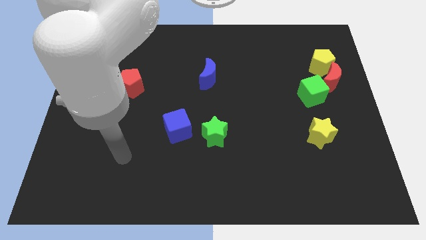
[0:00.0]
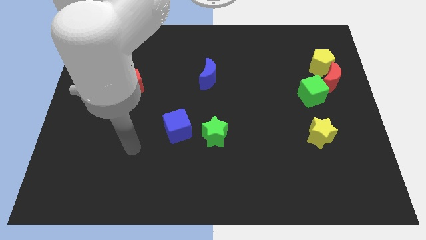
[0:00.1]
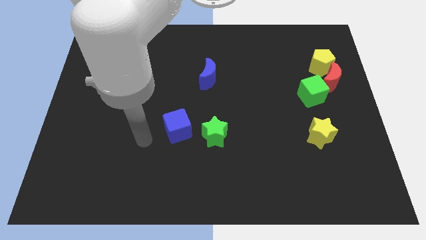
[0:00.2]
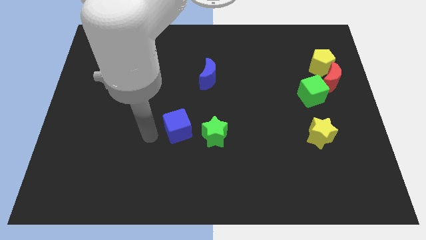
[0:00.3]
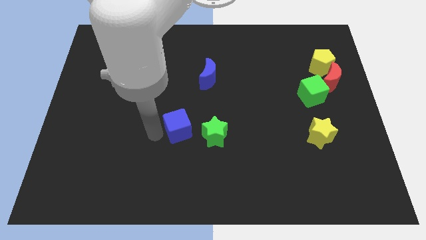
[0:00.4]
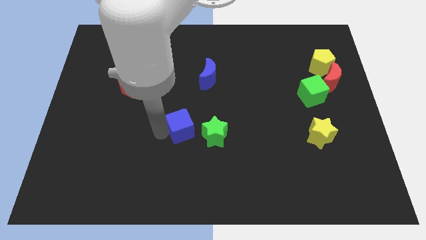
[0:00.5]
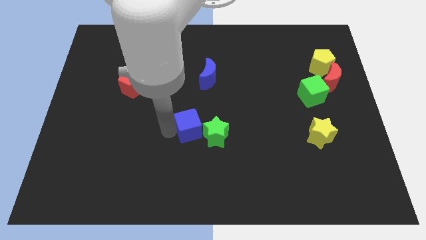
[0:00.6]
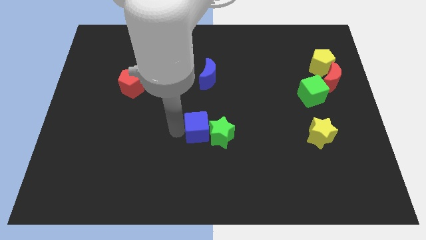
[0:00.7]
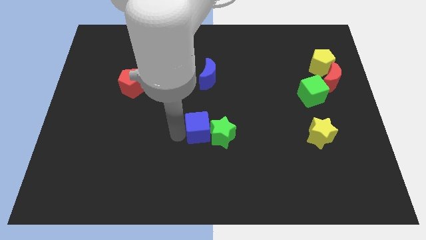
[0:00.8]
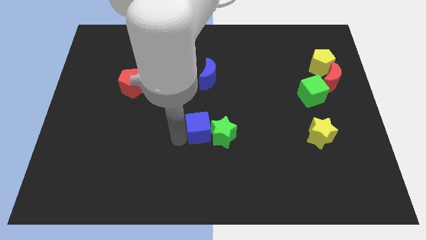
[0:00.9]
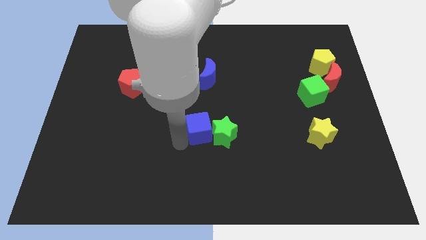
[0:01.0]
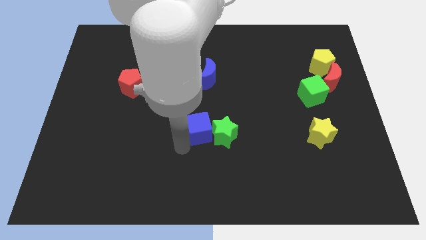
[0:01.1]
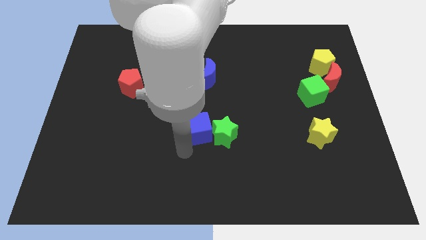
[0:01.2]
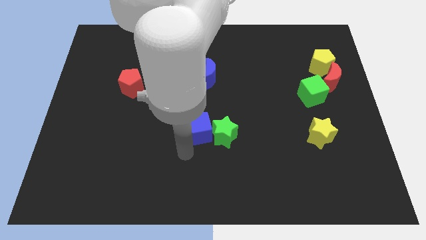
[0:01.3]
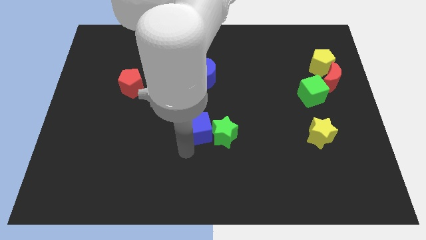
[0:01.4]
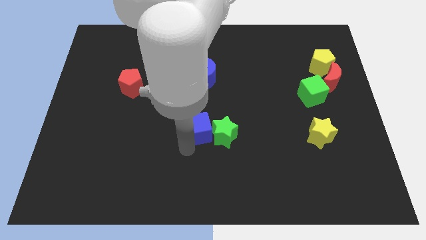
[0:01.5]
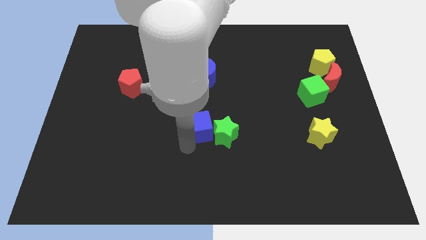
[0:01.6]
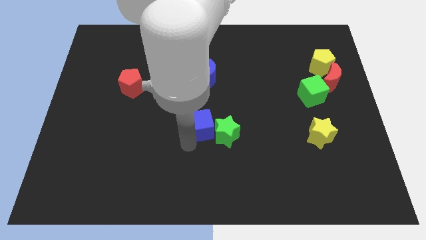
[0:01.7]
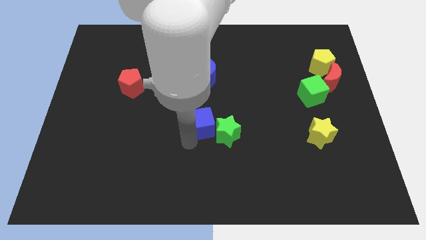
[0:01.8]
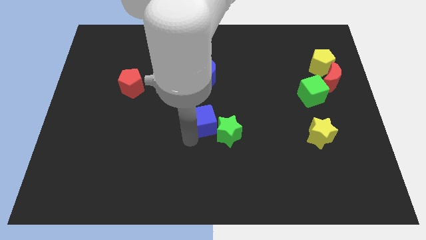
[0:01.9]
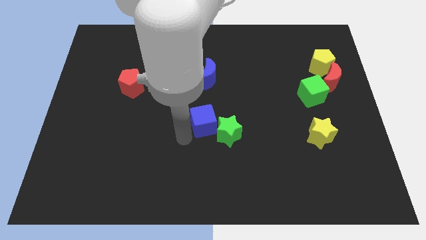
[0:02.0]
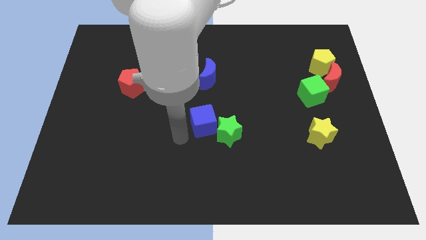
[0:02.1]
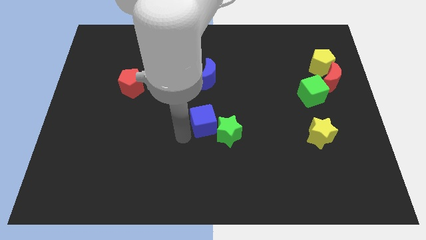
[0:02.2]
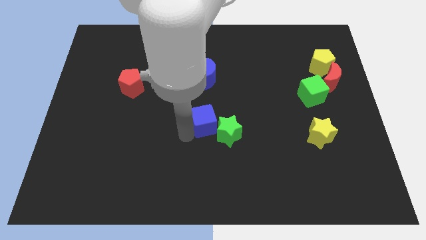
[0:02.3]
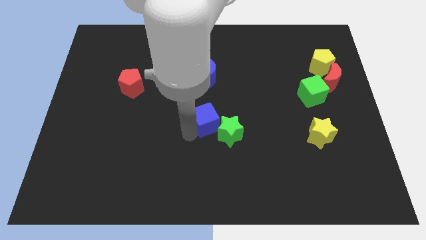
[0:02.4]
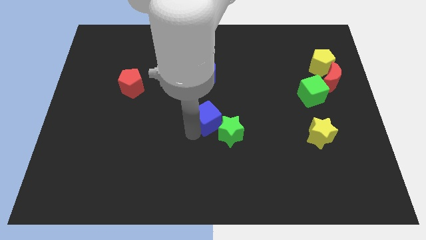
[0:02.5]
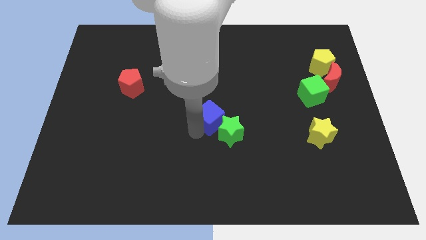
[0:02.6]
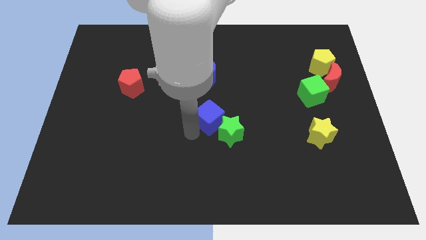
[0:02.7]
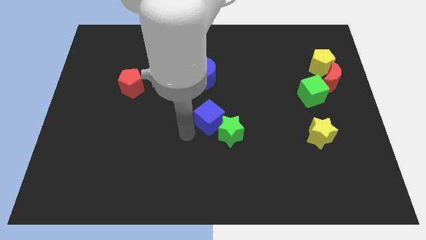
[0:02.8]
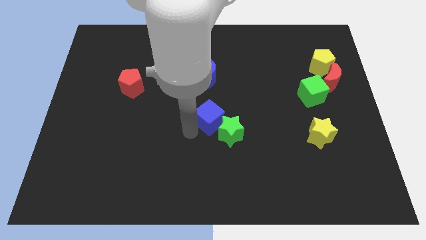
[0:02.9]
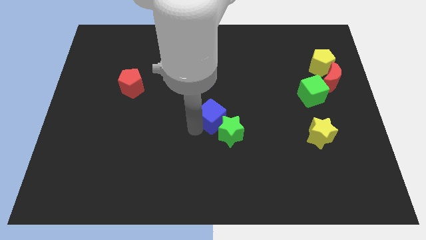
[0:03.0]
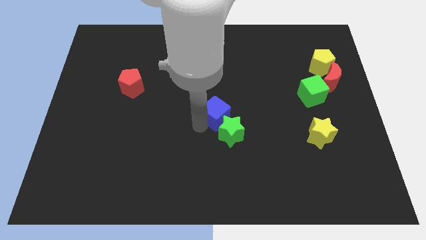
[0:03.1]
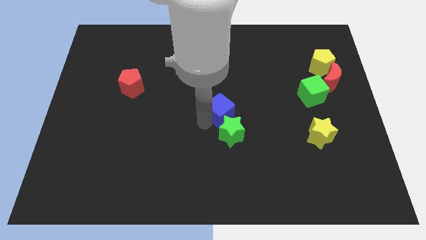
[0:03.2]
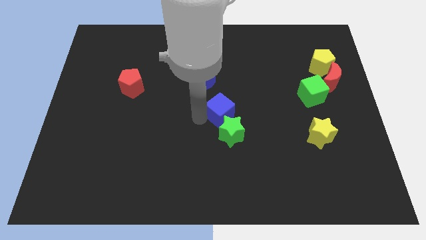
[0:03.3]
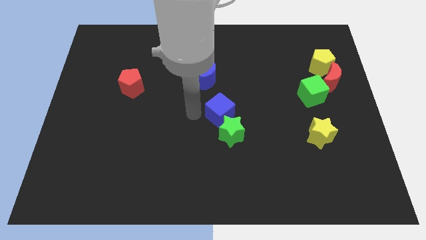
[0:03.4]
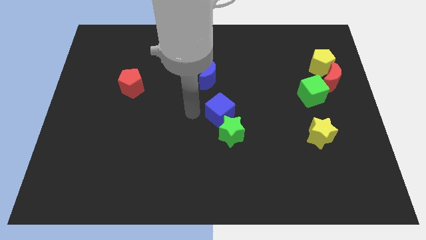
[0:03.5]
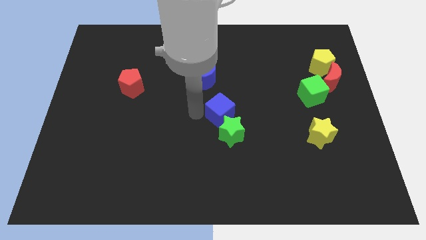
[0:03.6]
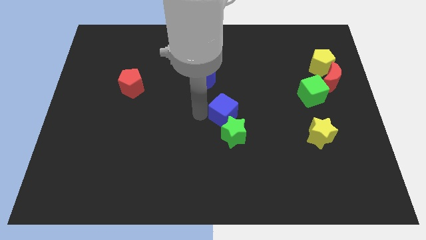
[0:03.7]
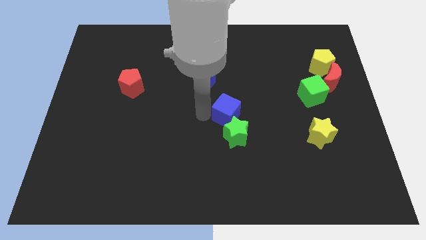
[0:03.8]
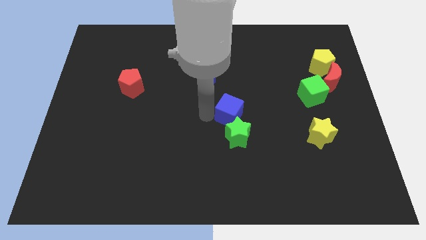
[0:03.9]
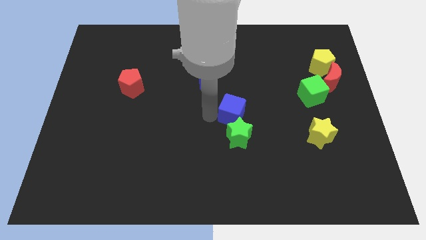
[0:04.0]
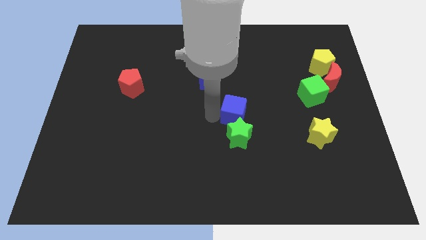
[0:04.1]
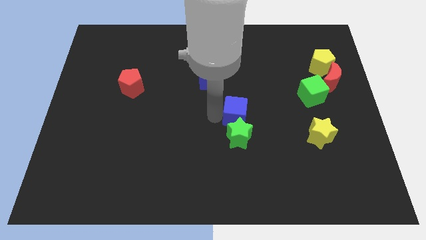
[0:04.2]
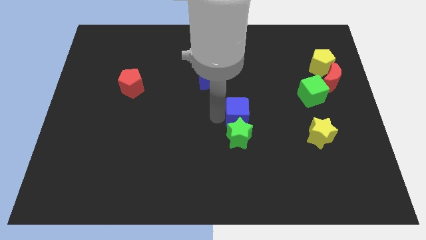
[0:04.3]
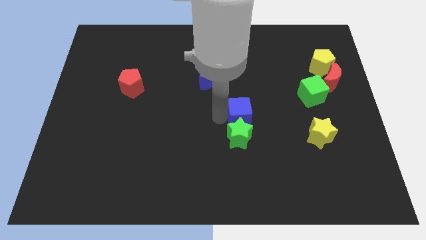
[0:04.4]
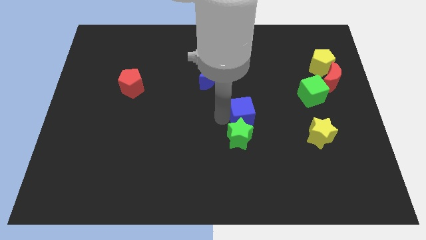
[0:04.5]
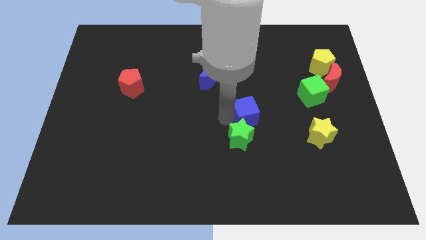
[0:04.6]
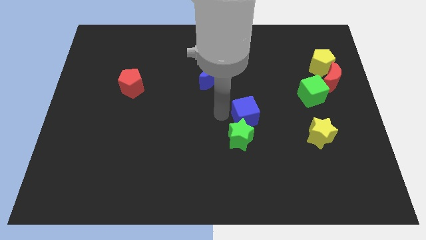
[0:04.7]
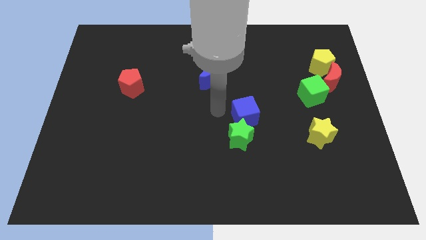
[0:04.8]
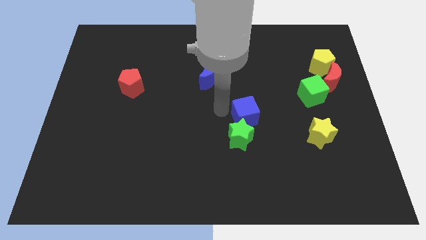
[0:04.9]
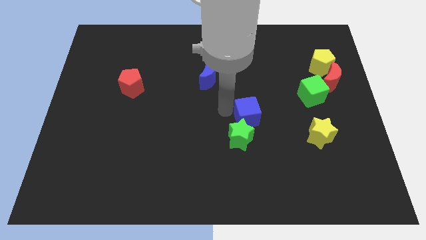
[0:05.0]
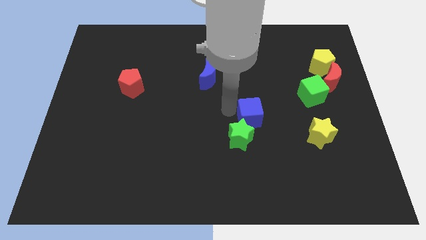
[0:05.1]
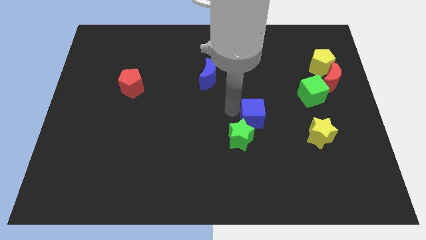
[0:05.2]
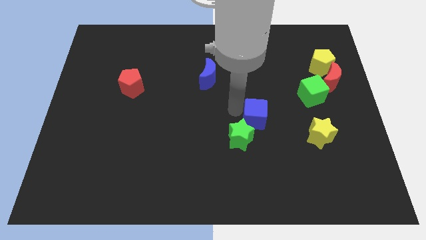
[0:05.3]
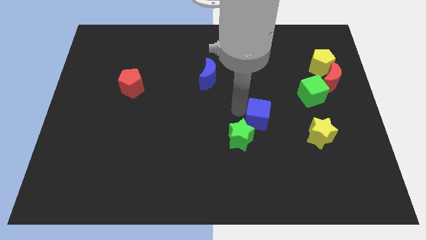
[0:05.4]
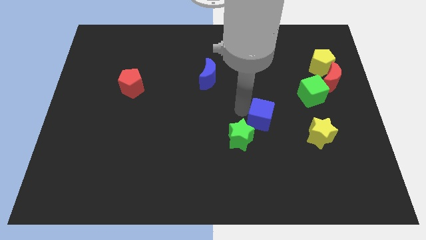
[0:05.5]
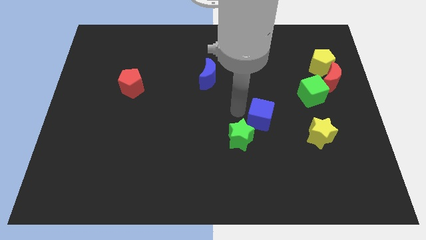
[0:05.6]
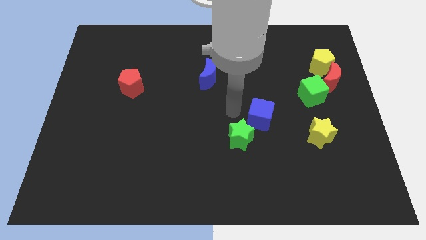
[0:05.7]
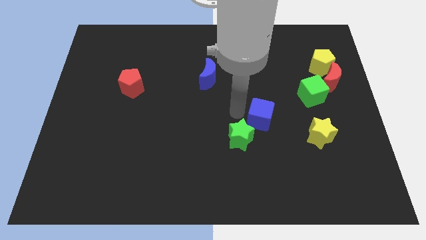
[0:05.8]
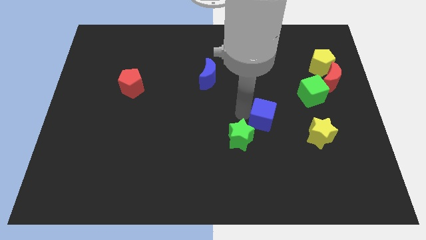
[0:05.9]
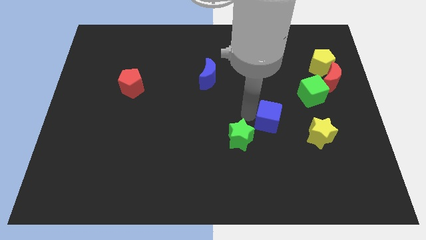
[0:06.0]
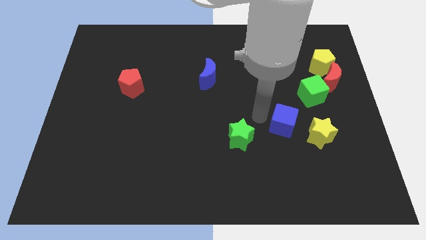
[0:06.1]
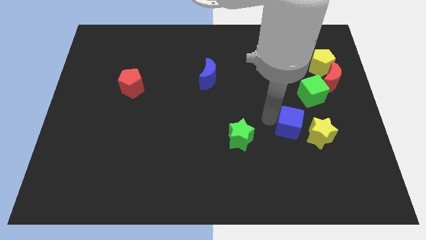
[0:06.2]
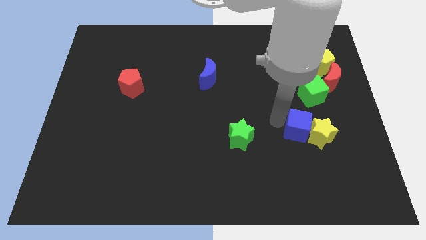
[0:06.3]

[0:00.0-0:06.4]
push the blue cube towards the yellow star

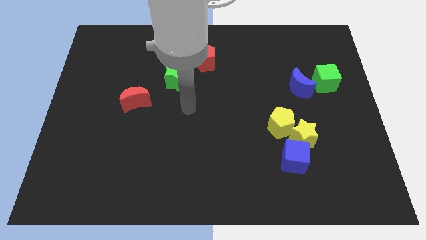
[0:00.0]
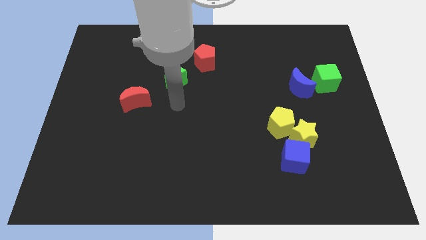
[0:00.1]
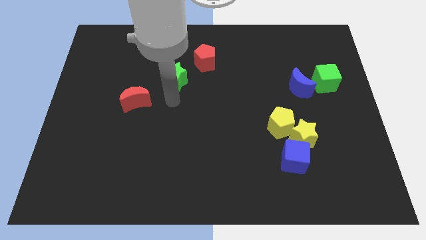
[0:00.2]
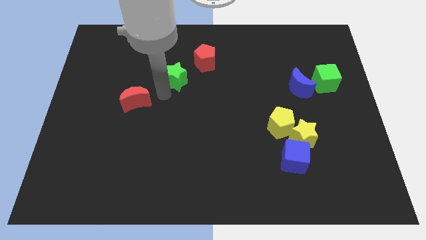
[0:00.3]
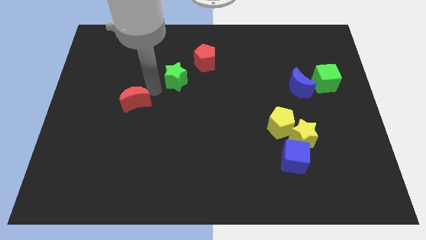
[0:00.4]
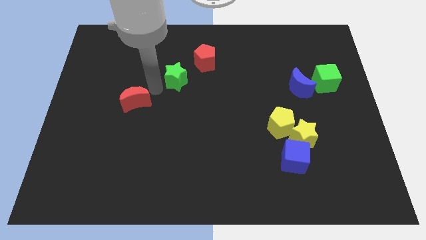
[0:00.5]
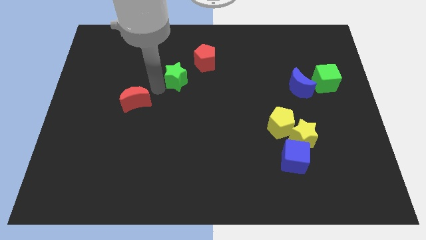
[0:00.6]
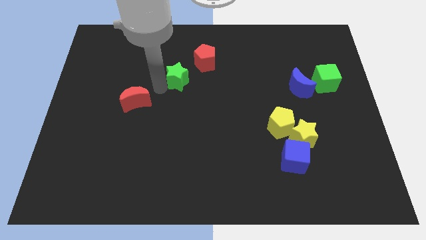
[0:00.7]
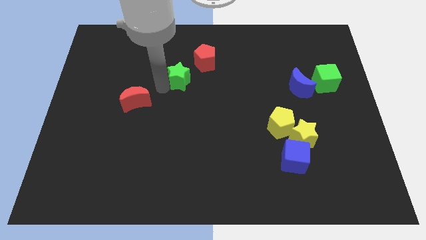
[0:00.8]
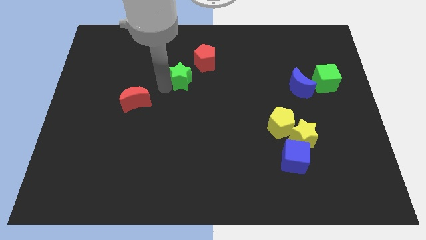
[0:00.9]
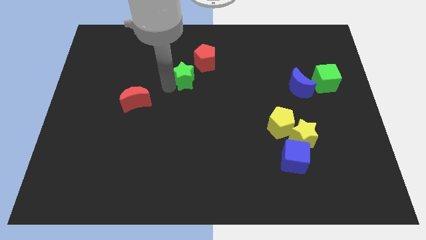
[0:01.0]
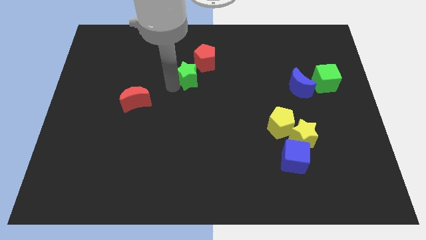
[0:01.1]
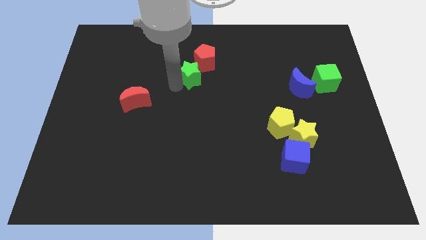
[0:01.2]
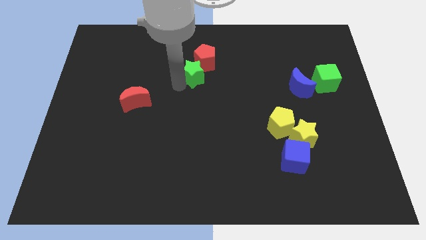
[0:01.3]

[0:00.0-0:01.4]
slide the green star to the red pentagon
